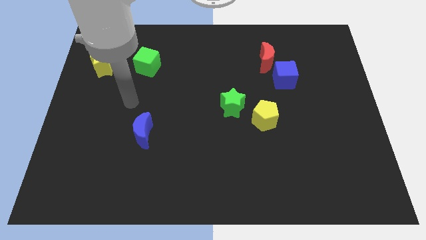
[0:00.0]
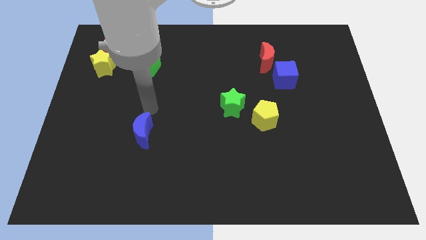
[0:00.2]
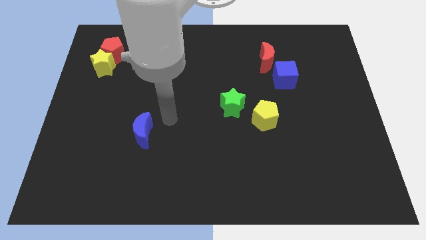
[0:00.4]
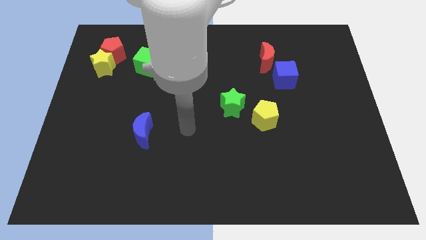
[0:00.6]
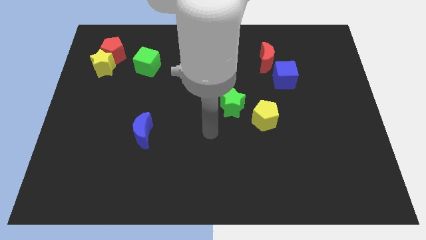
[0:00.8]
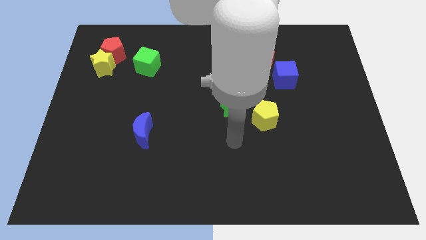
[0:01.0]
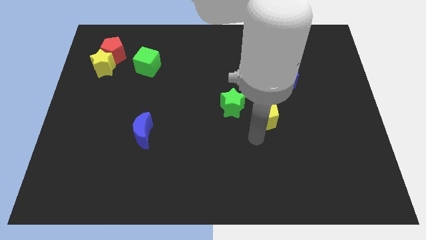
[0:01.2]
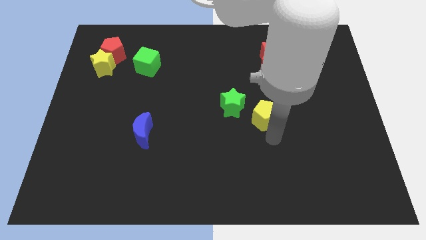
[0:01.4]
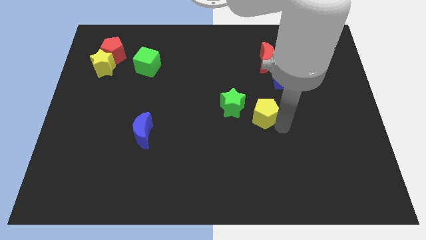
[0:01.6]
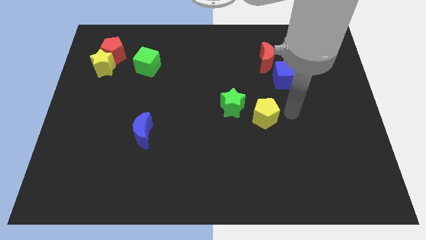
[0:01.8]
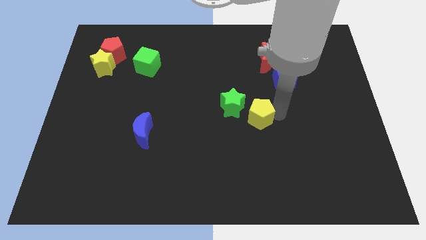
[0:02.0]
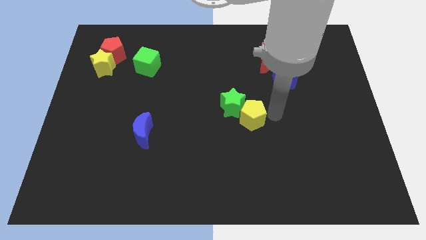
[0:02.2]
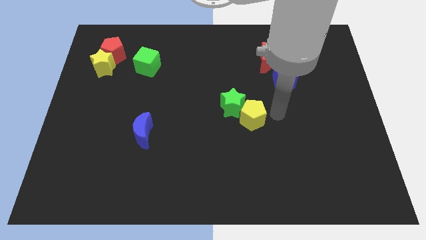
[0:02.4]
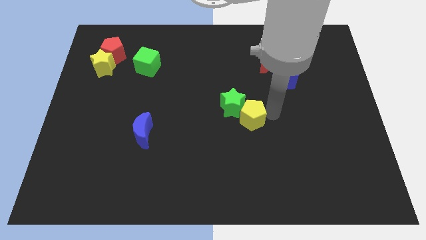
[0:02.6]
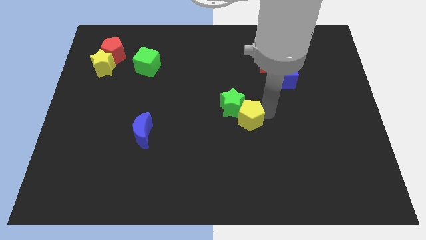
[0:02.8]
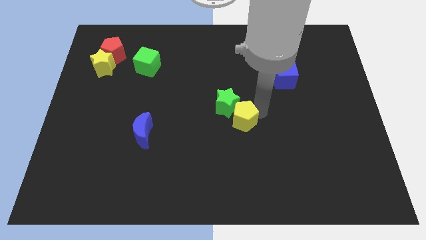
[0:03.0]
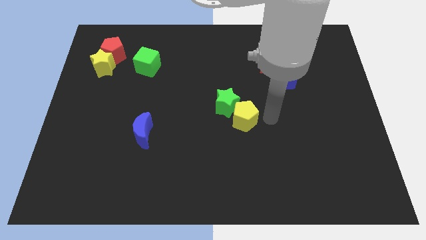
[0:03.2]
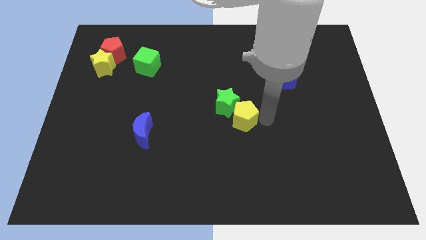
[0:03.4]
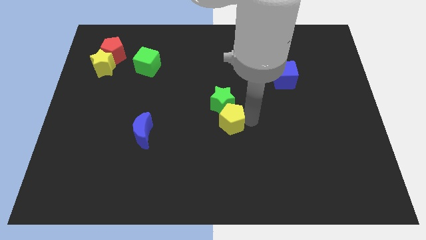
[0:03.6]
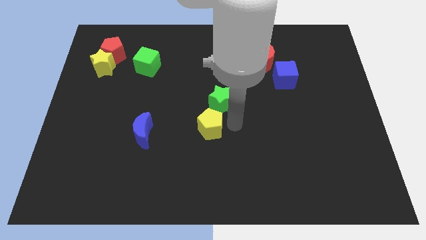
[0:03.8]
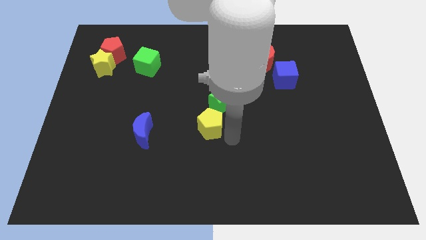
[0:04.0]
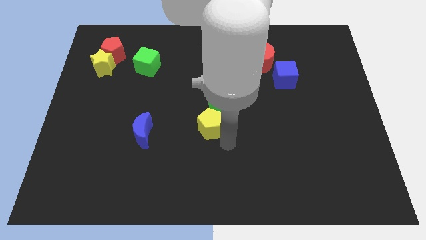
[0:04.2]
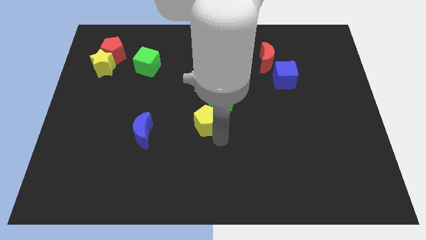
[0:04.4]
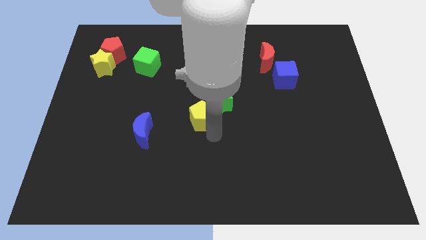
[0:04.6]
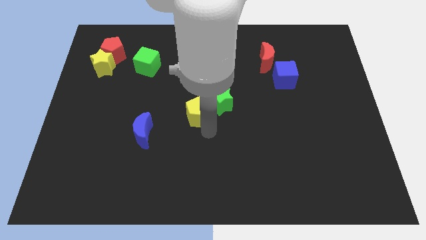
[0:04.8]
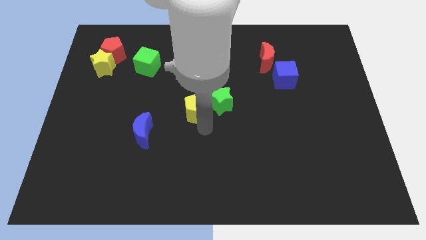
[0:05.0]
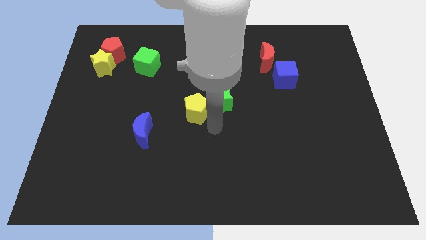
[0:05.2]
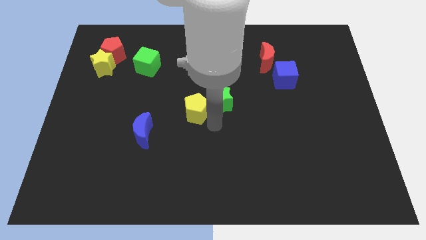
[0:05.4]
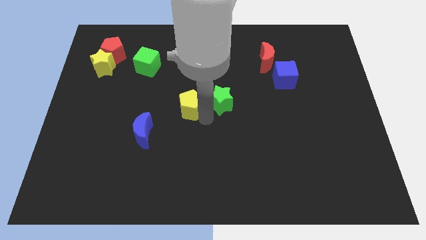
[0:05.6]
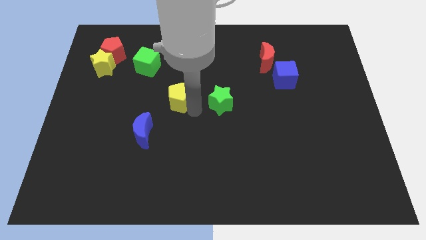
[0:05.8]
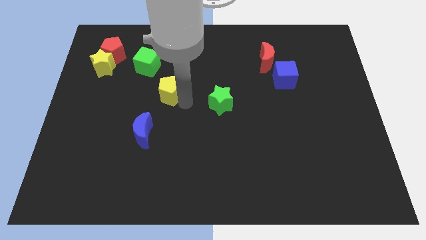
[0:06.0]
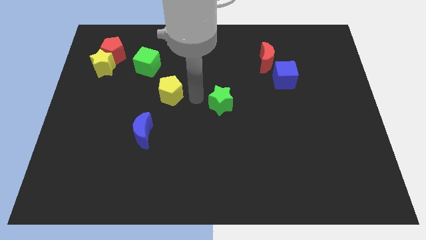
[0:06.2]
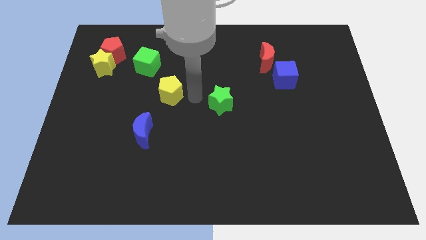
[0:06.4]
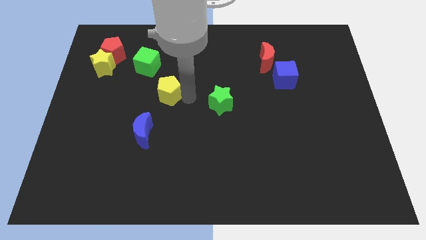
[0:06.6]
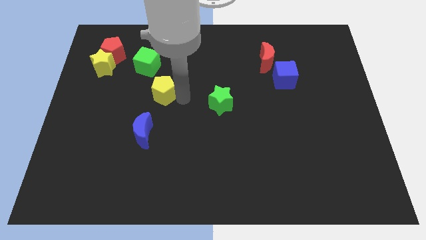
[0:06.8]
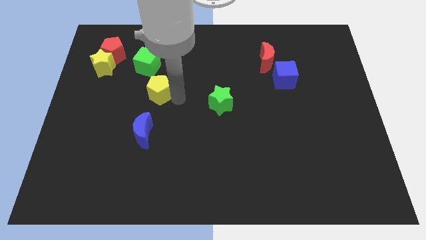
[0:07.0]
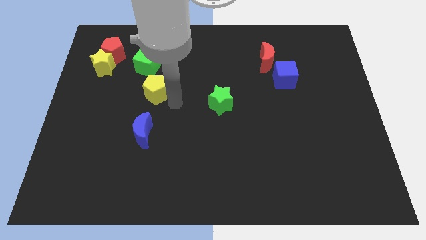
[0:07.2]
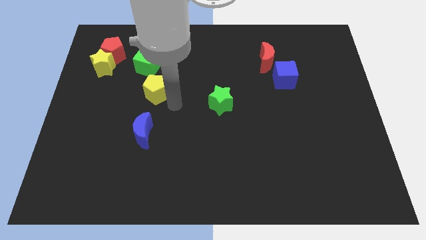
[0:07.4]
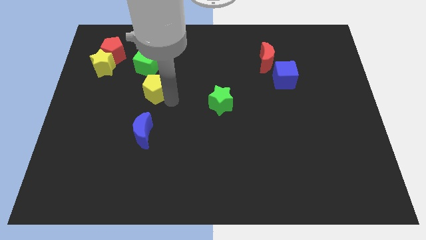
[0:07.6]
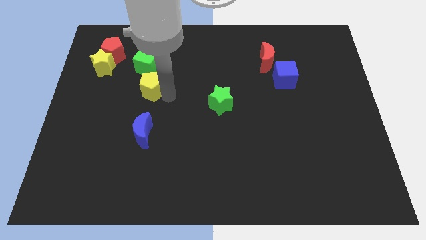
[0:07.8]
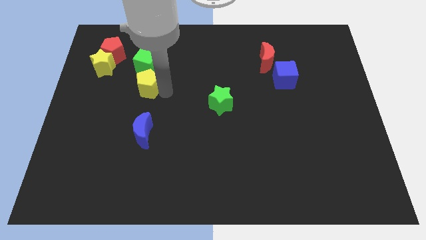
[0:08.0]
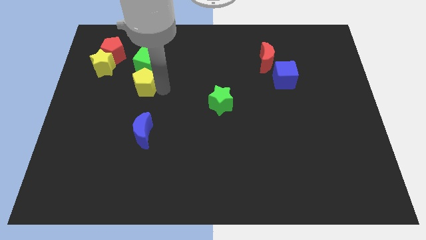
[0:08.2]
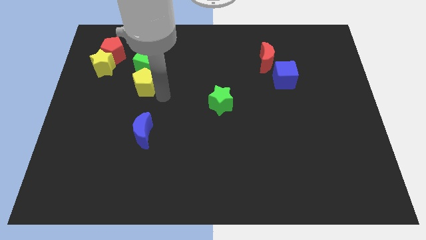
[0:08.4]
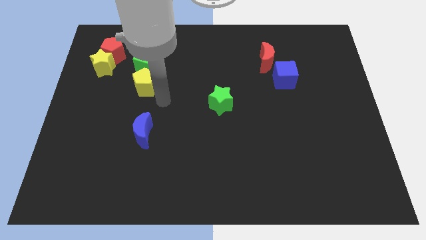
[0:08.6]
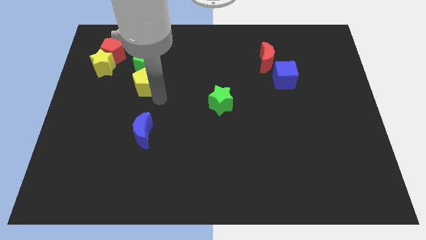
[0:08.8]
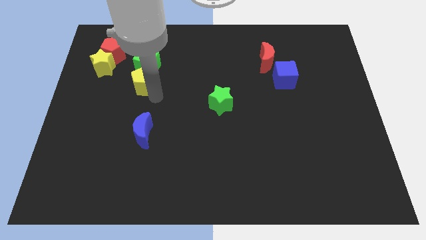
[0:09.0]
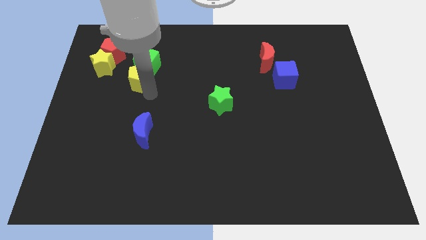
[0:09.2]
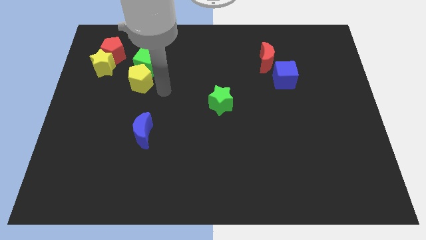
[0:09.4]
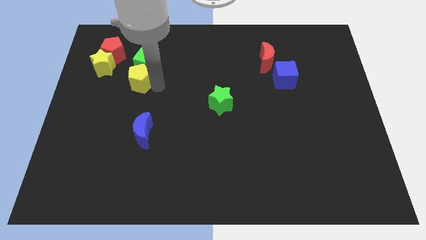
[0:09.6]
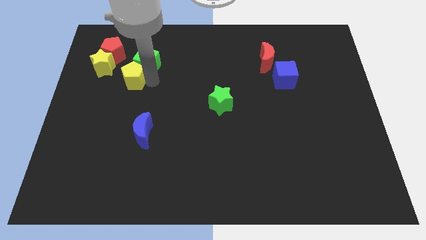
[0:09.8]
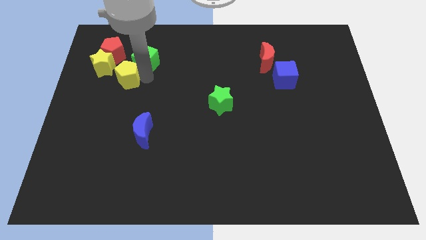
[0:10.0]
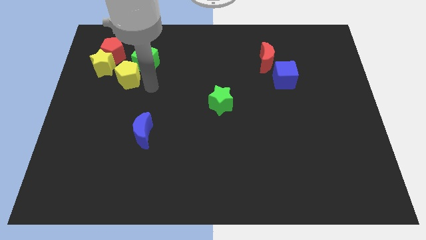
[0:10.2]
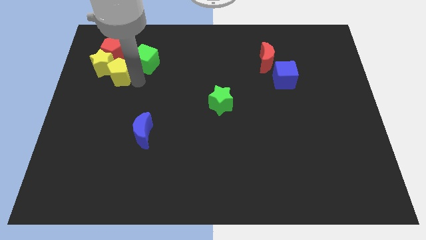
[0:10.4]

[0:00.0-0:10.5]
put the yellow pentagon next to the yellow star

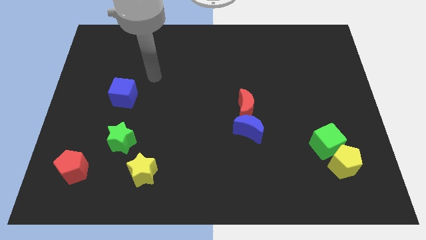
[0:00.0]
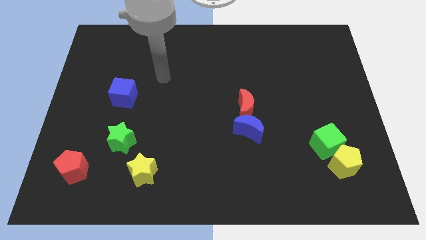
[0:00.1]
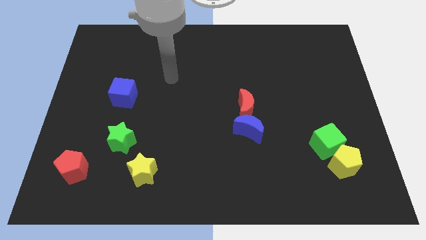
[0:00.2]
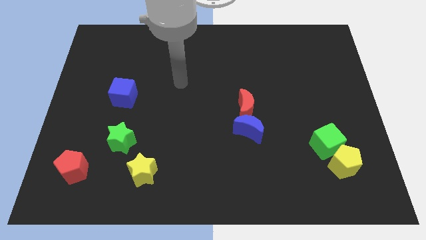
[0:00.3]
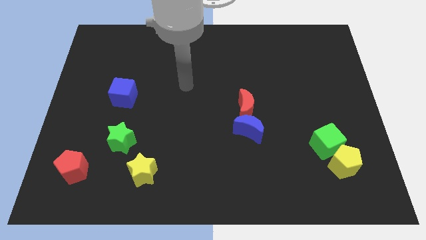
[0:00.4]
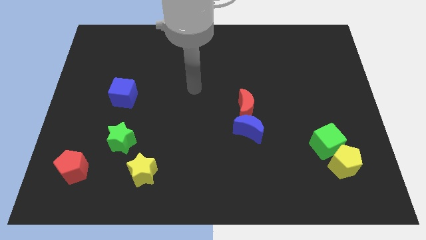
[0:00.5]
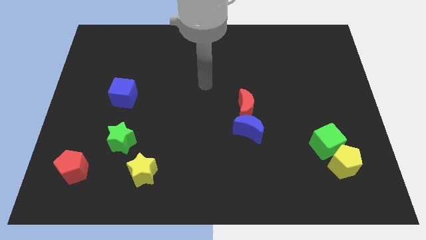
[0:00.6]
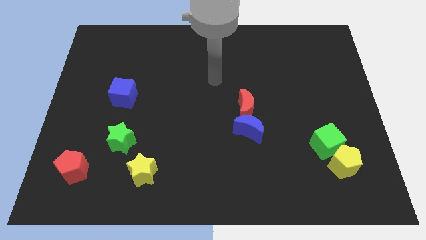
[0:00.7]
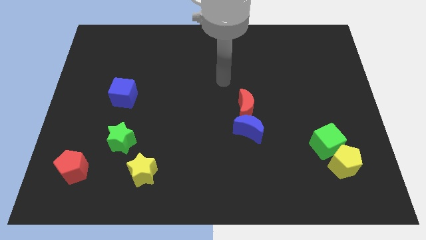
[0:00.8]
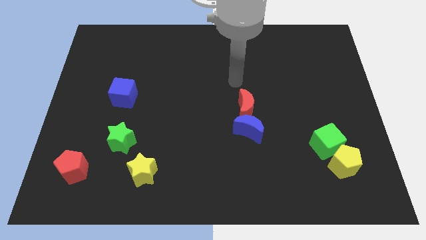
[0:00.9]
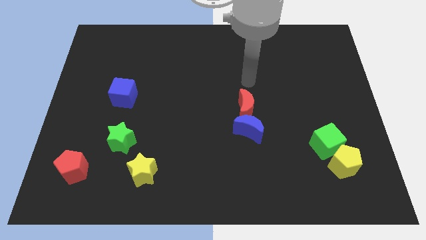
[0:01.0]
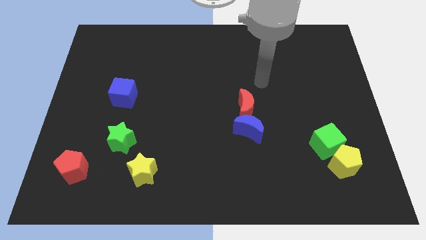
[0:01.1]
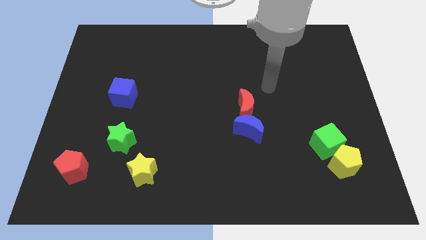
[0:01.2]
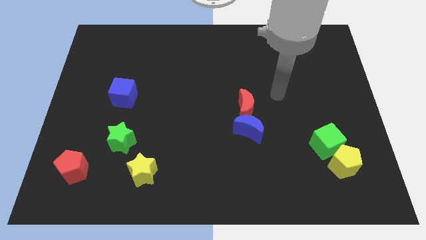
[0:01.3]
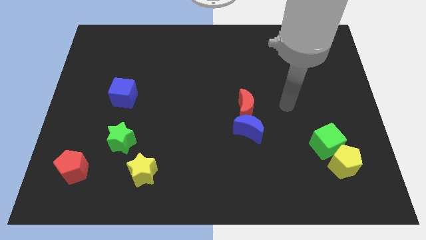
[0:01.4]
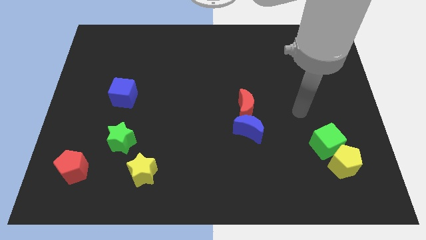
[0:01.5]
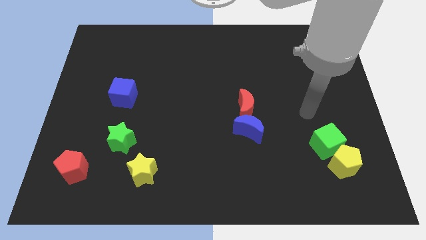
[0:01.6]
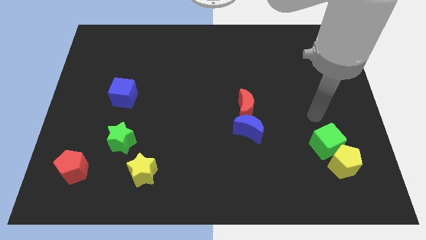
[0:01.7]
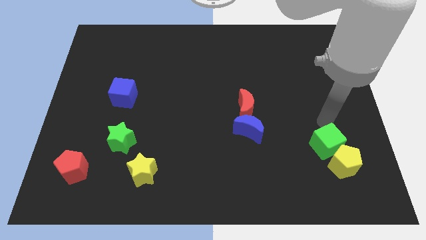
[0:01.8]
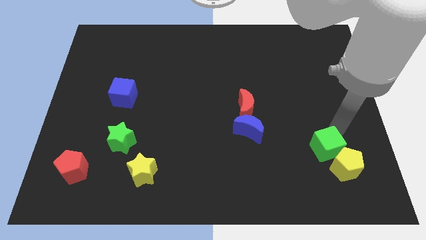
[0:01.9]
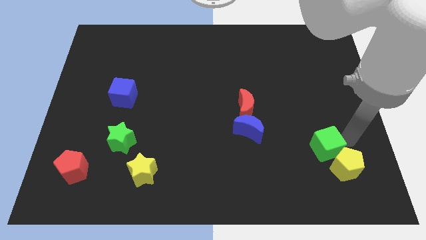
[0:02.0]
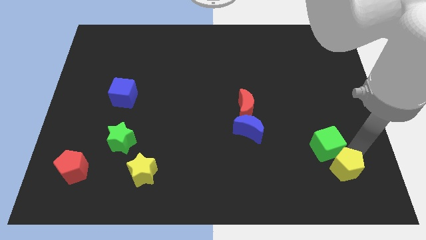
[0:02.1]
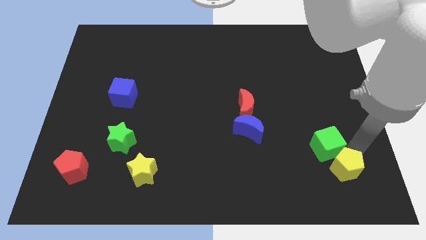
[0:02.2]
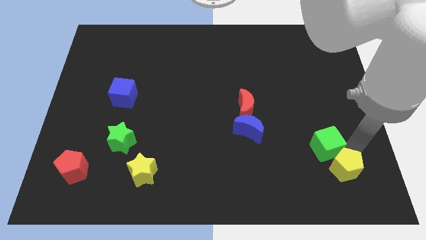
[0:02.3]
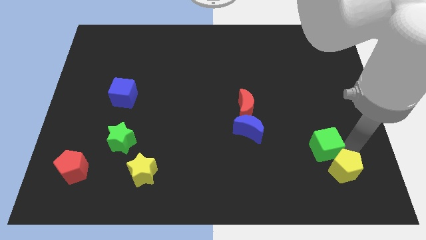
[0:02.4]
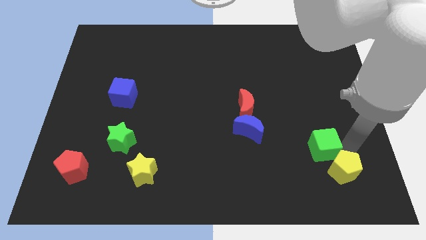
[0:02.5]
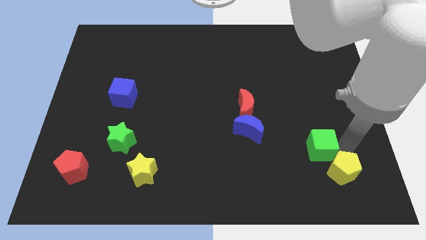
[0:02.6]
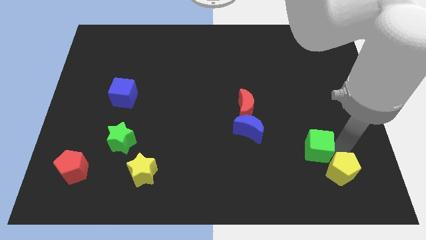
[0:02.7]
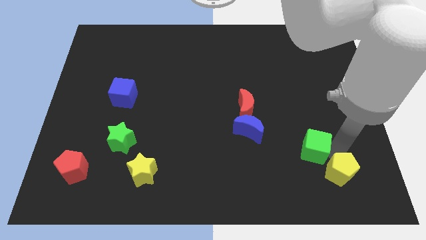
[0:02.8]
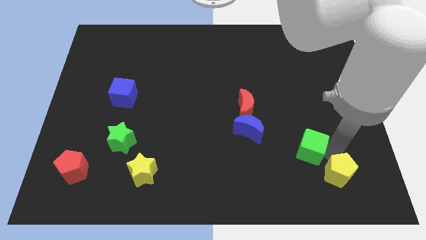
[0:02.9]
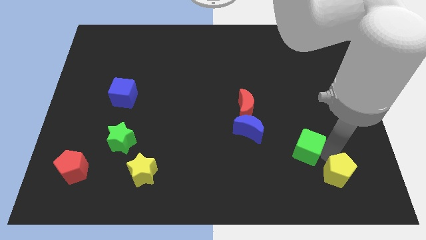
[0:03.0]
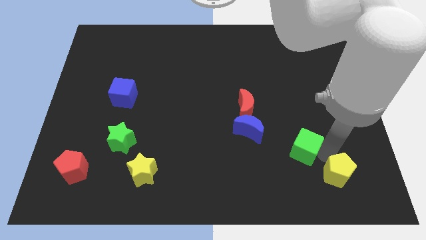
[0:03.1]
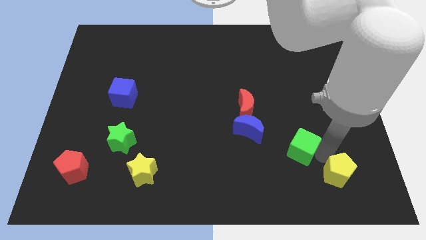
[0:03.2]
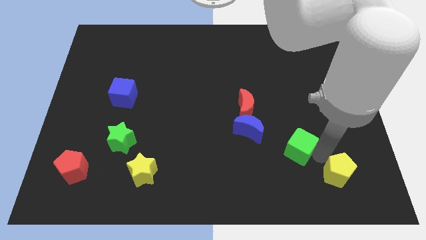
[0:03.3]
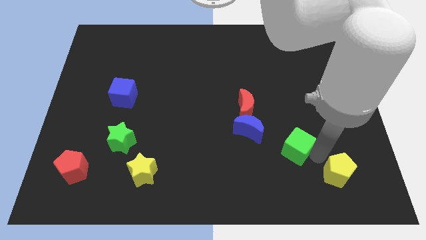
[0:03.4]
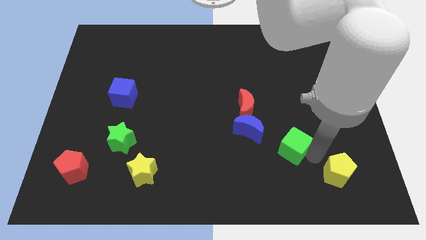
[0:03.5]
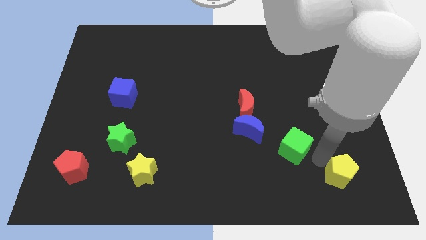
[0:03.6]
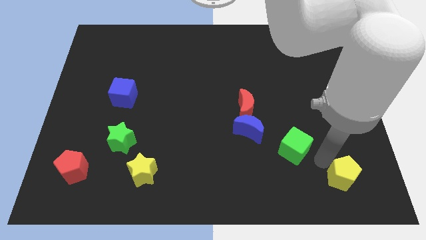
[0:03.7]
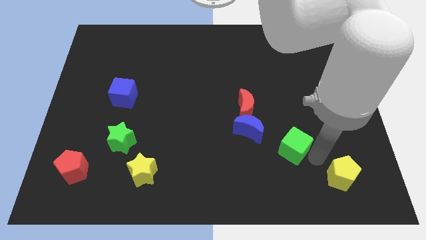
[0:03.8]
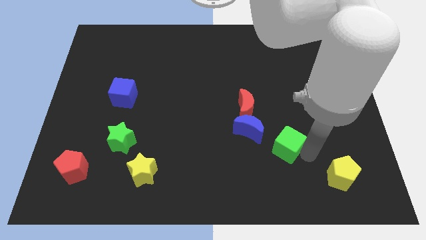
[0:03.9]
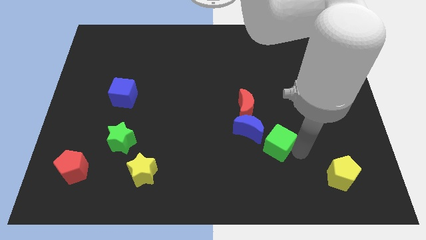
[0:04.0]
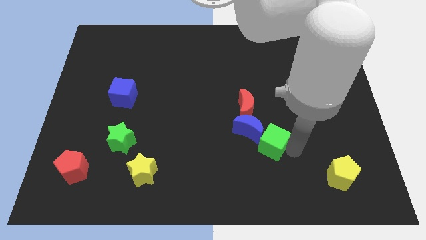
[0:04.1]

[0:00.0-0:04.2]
slide the green cube close to the blue moon
